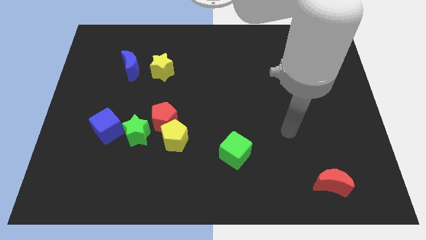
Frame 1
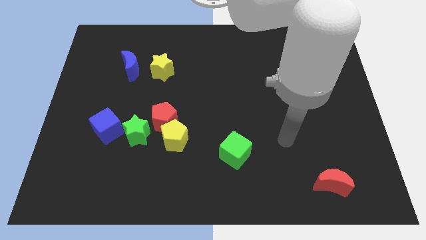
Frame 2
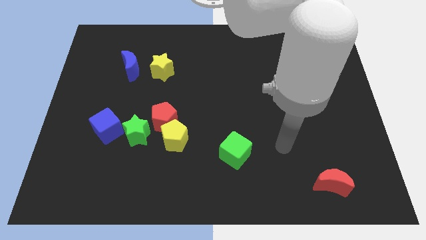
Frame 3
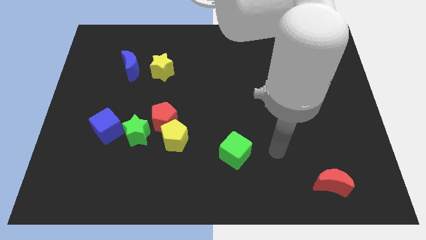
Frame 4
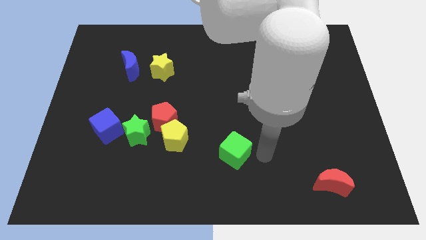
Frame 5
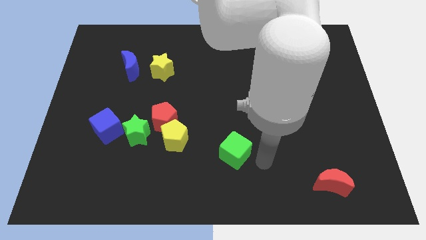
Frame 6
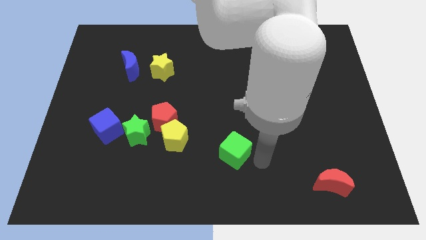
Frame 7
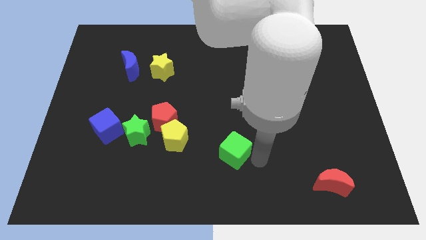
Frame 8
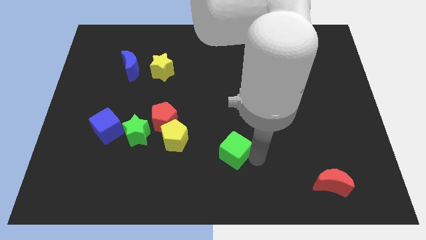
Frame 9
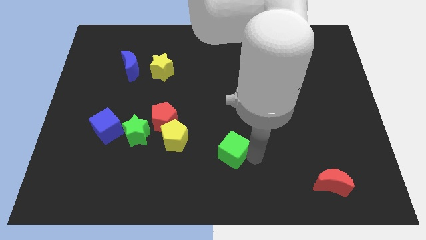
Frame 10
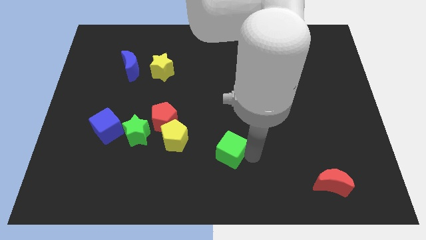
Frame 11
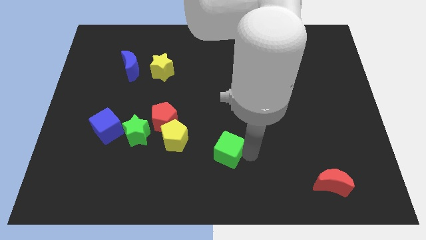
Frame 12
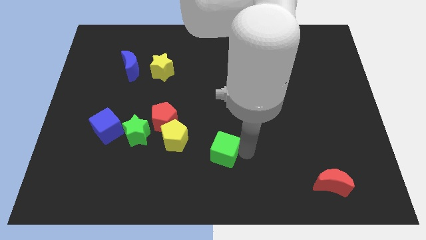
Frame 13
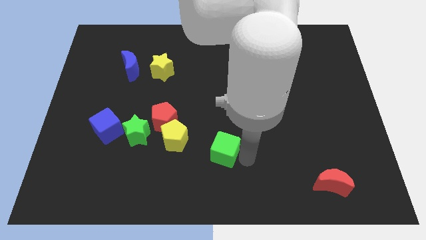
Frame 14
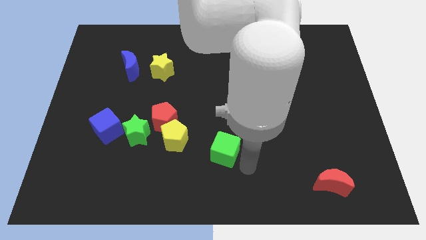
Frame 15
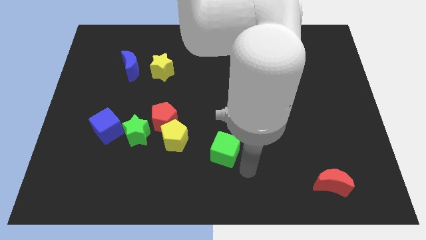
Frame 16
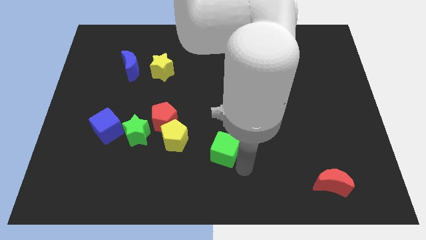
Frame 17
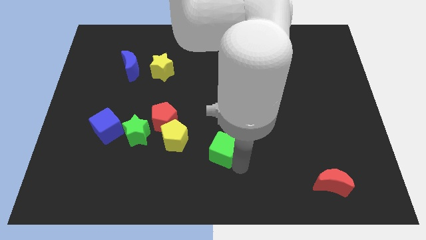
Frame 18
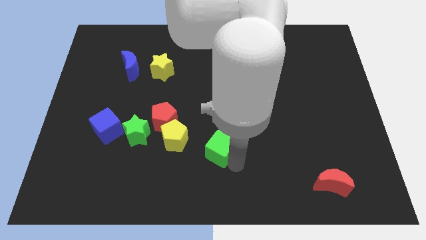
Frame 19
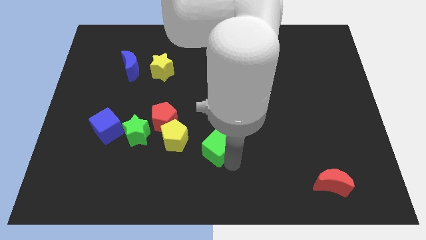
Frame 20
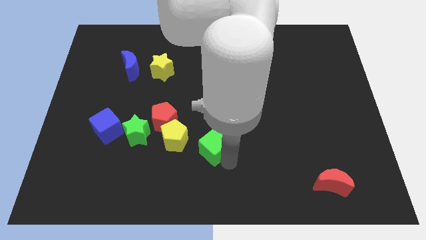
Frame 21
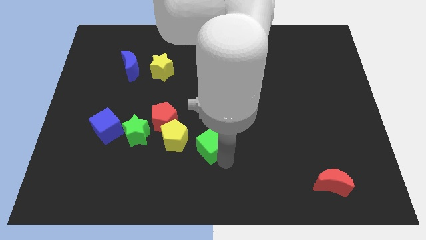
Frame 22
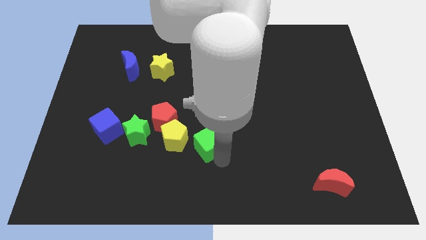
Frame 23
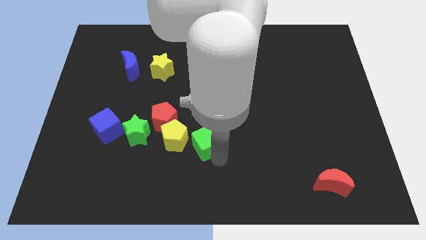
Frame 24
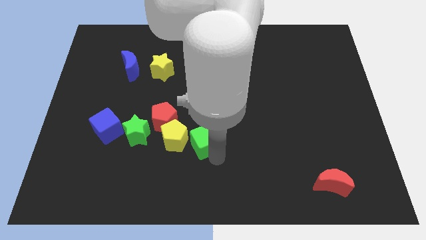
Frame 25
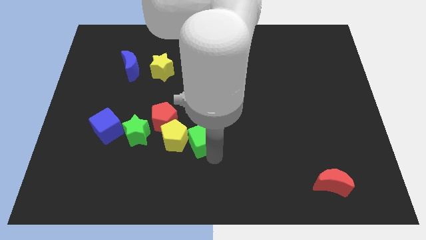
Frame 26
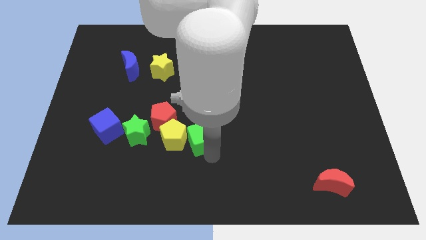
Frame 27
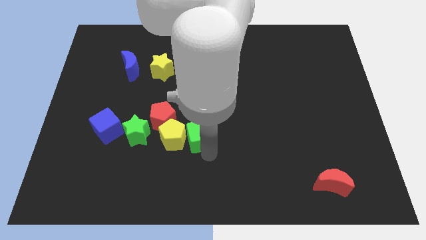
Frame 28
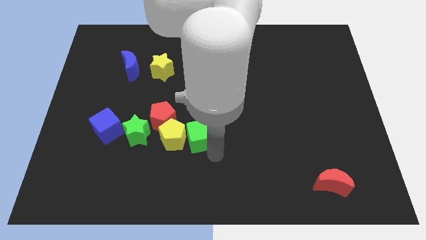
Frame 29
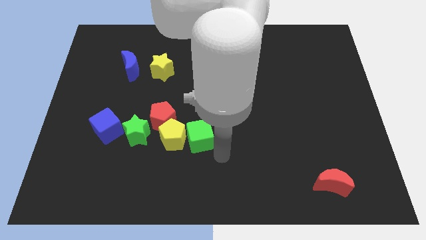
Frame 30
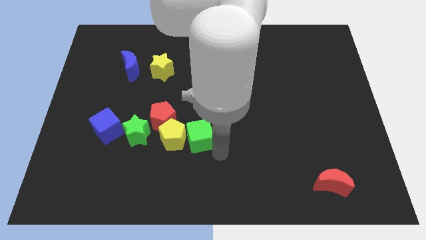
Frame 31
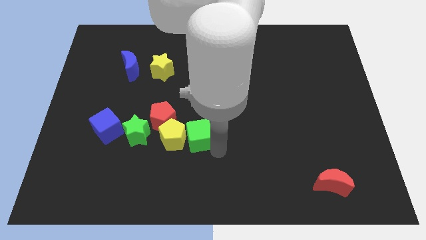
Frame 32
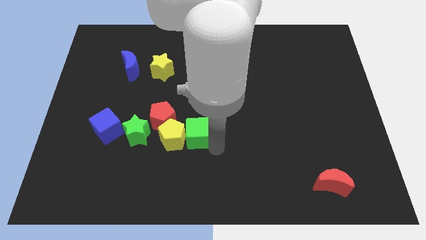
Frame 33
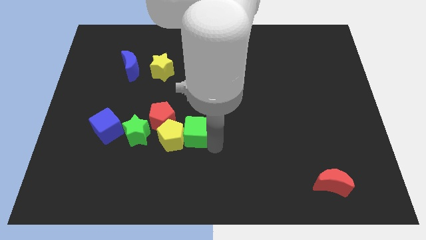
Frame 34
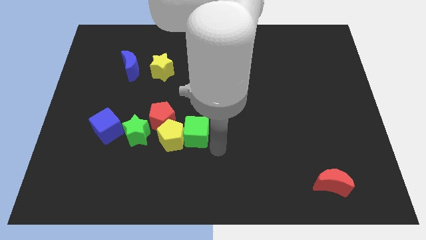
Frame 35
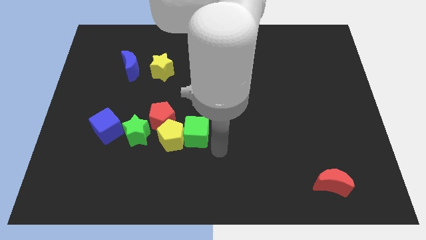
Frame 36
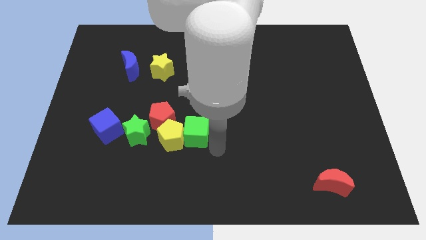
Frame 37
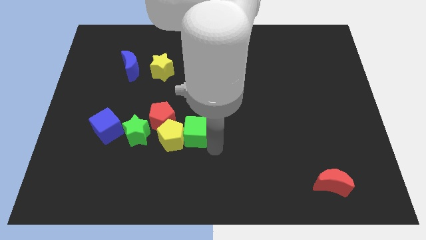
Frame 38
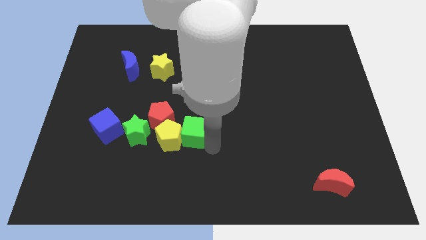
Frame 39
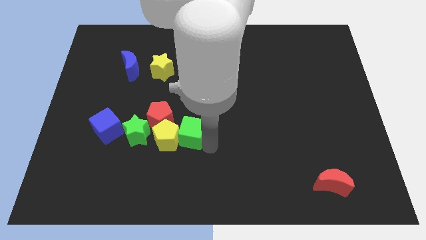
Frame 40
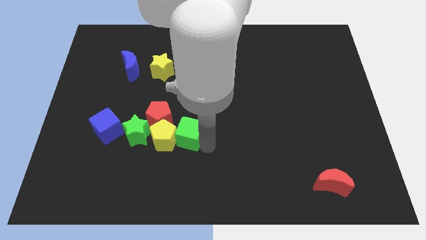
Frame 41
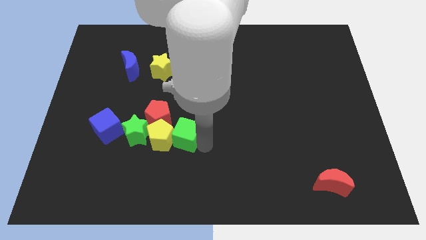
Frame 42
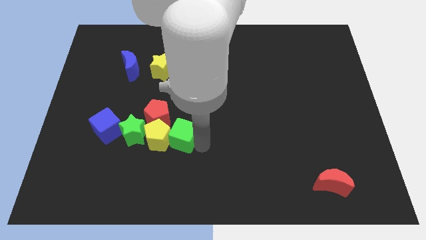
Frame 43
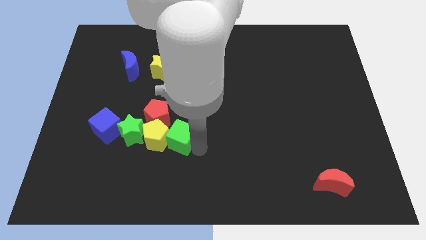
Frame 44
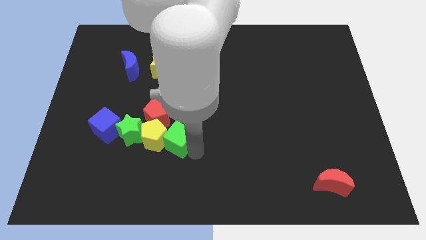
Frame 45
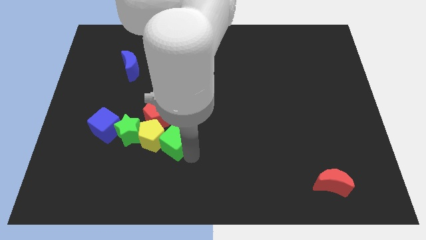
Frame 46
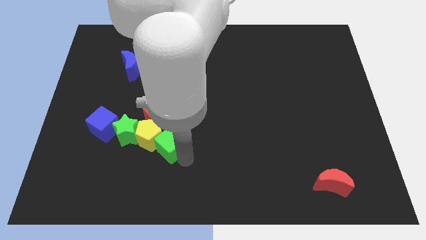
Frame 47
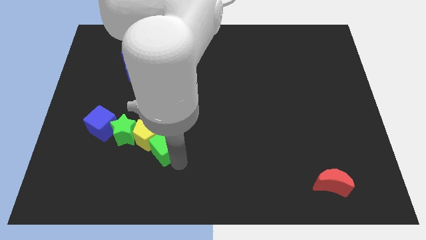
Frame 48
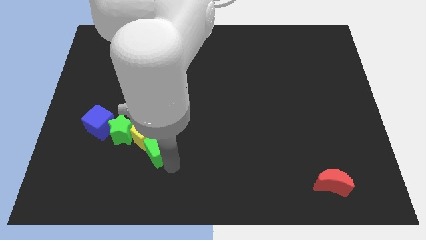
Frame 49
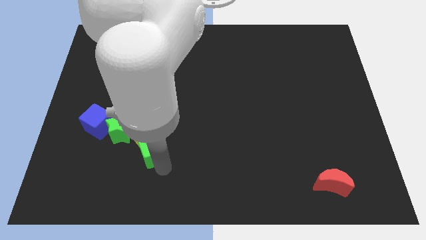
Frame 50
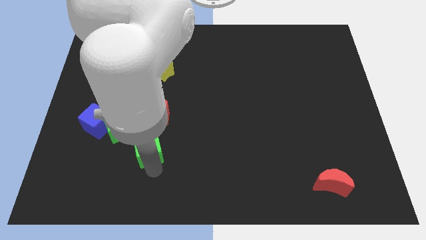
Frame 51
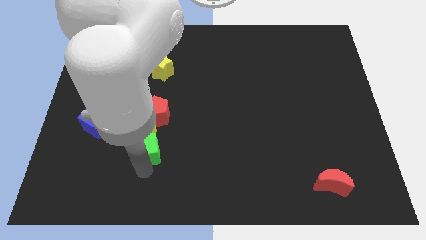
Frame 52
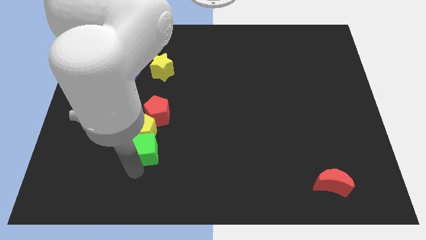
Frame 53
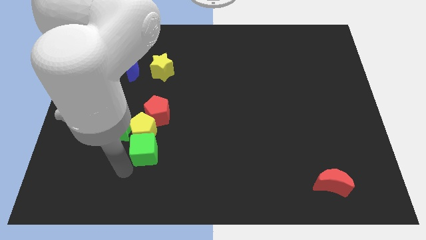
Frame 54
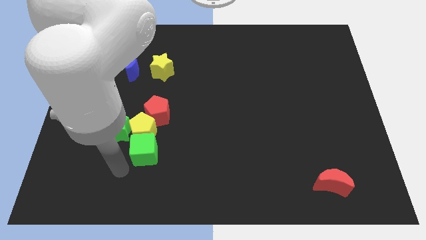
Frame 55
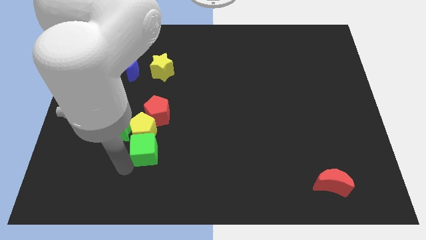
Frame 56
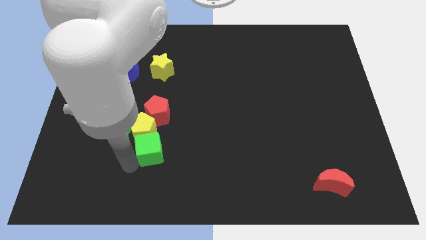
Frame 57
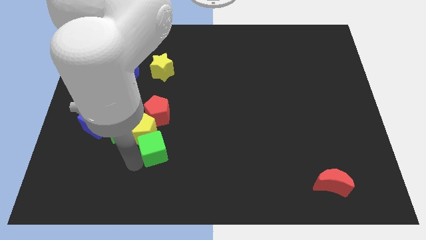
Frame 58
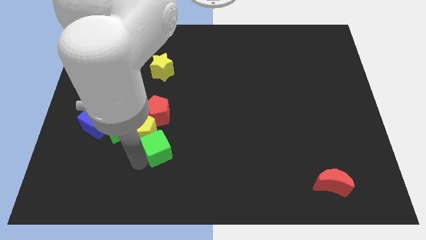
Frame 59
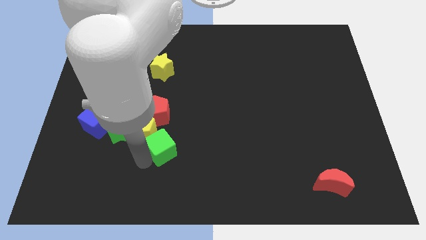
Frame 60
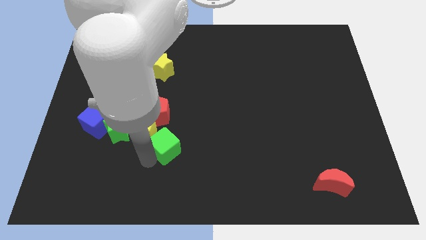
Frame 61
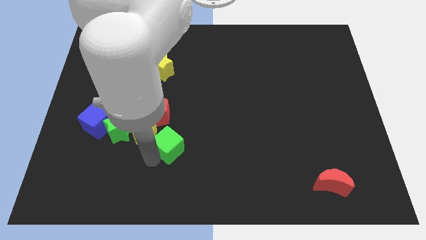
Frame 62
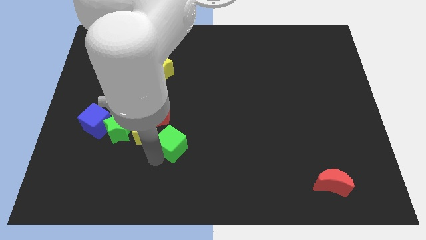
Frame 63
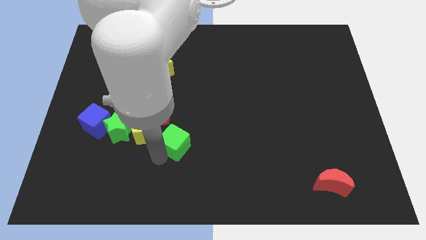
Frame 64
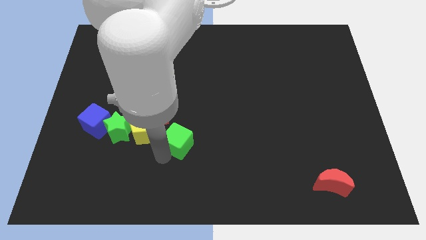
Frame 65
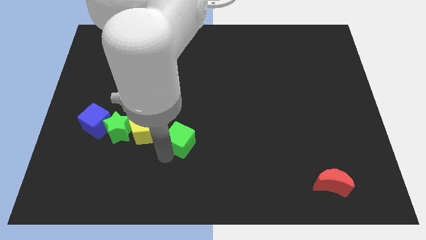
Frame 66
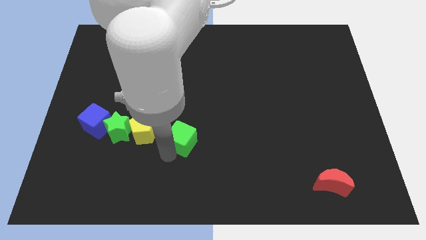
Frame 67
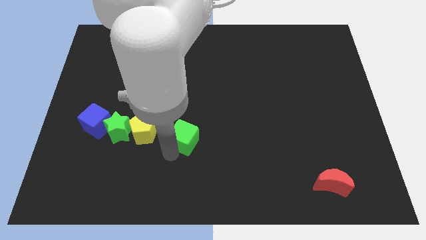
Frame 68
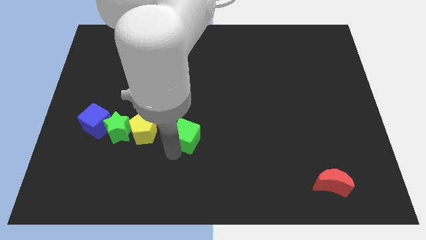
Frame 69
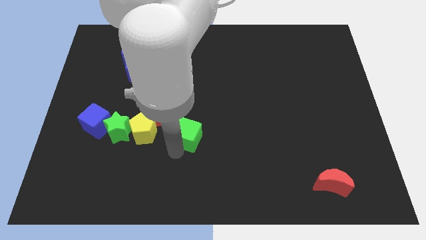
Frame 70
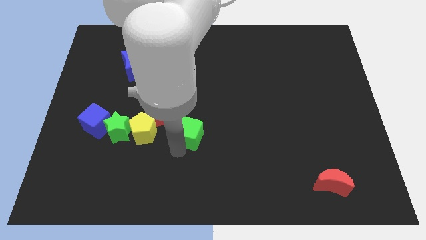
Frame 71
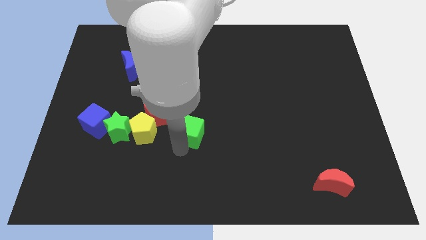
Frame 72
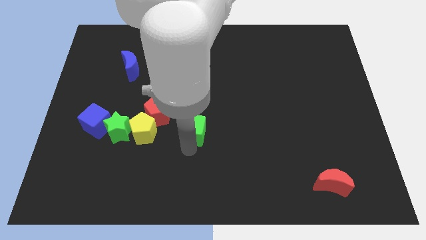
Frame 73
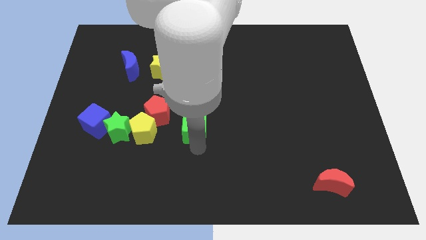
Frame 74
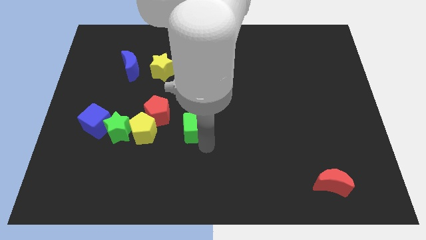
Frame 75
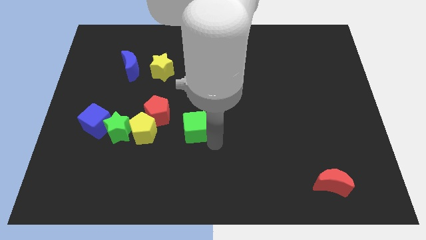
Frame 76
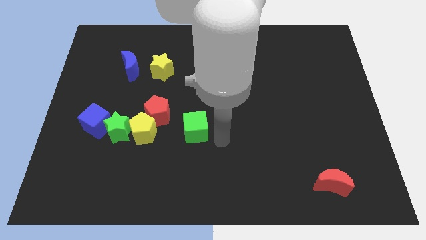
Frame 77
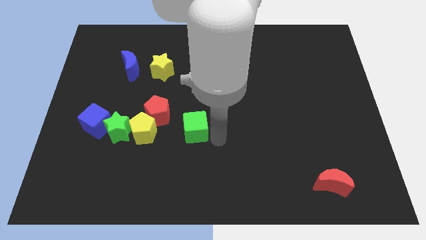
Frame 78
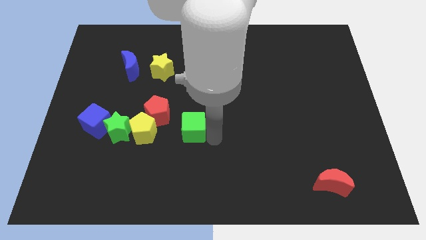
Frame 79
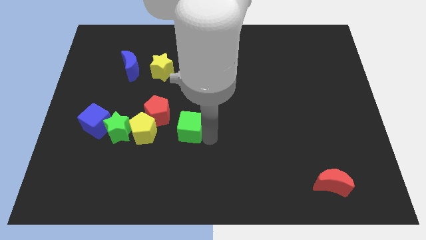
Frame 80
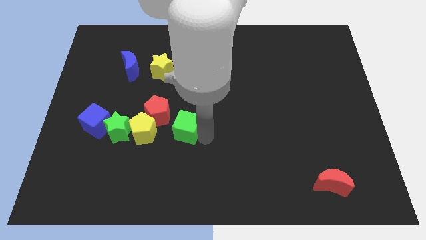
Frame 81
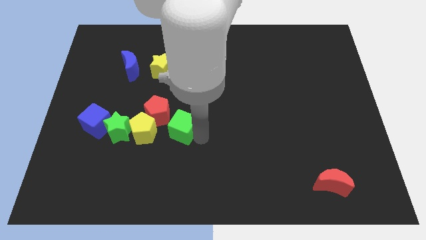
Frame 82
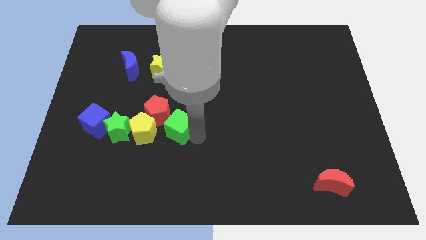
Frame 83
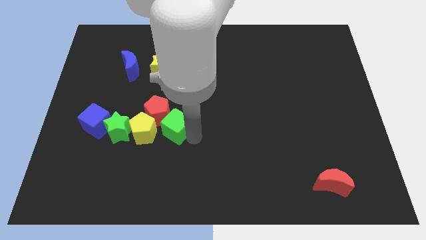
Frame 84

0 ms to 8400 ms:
slide the green cube close to the red pentagon
